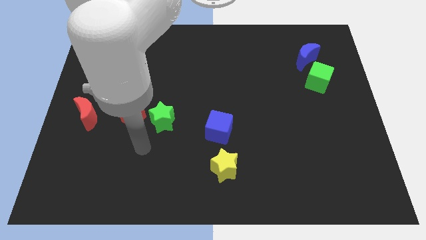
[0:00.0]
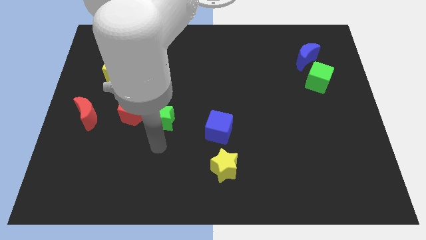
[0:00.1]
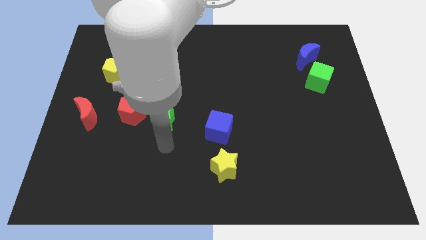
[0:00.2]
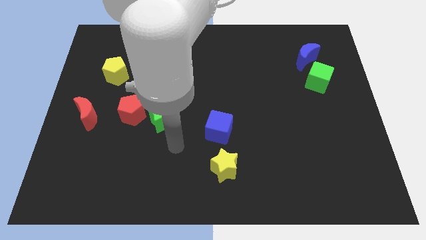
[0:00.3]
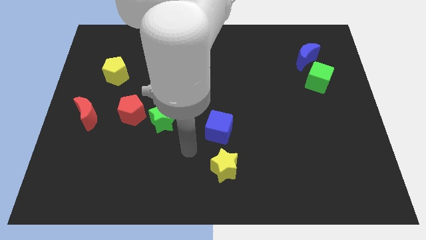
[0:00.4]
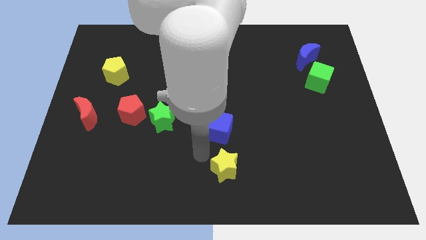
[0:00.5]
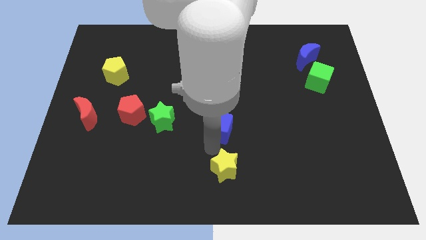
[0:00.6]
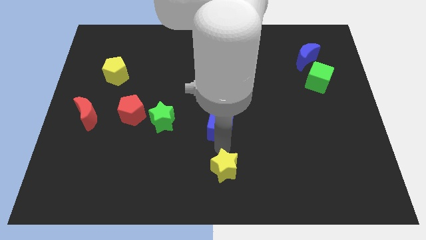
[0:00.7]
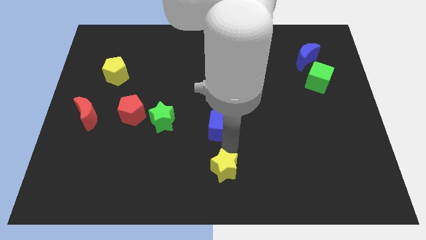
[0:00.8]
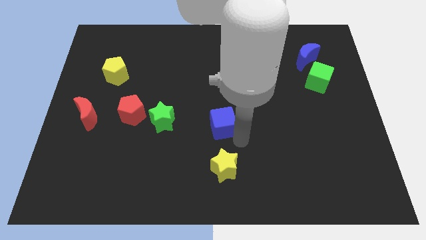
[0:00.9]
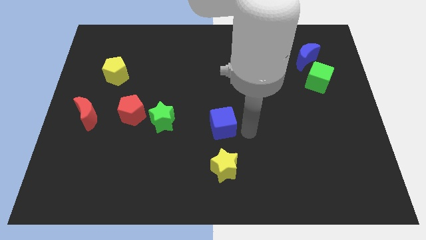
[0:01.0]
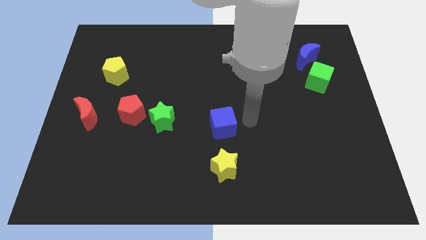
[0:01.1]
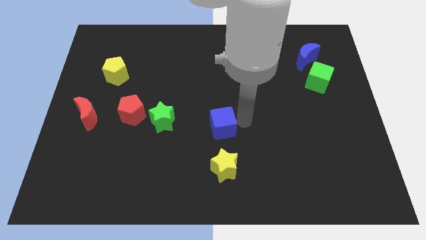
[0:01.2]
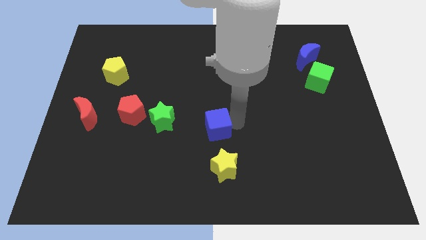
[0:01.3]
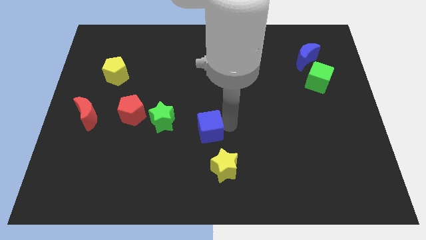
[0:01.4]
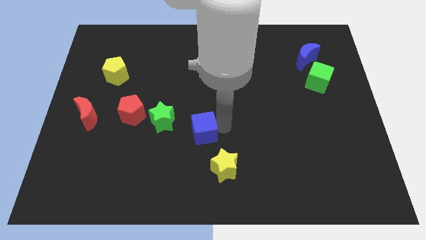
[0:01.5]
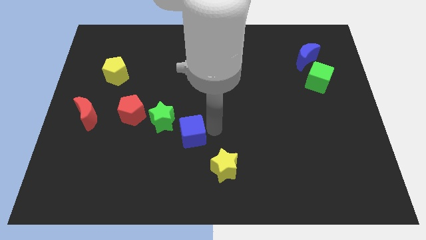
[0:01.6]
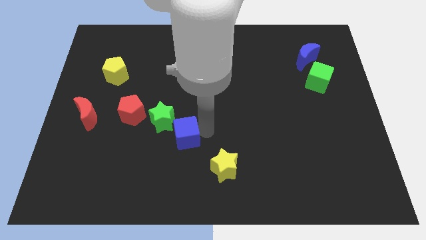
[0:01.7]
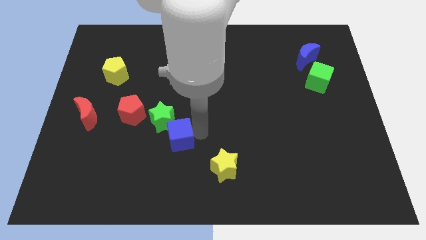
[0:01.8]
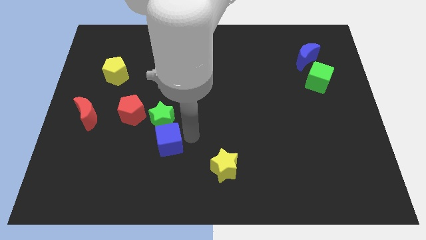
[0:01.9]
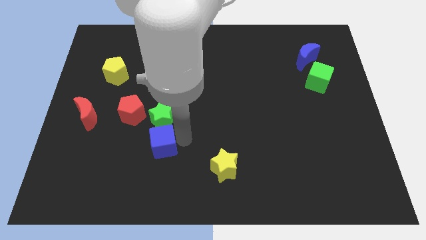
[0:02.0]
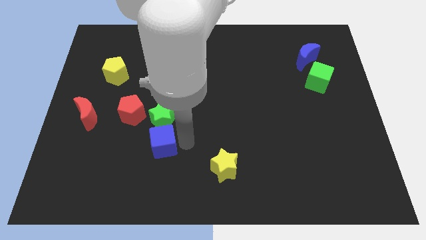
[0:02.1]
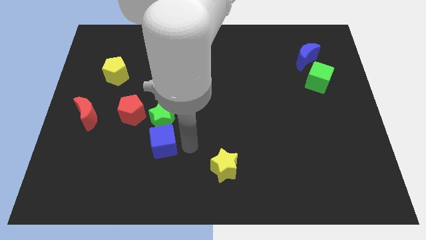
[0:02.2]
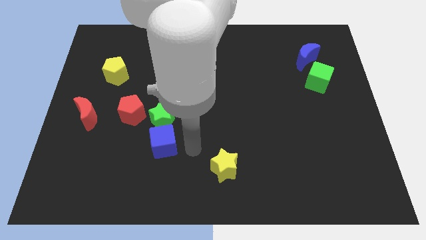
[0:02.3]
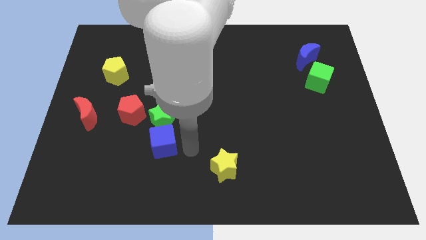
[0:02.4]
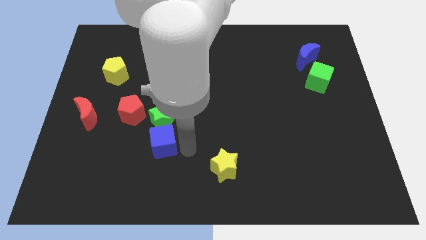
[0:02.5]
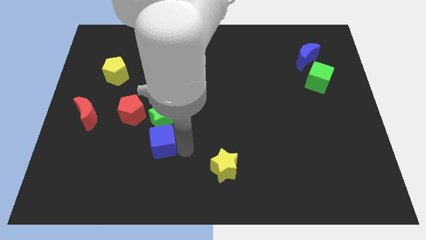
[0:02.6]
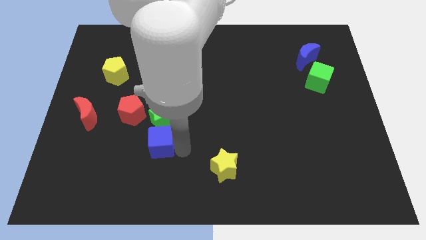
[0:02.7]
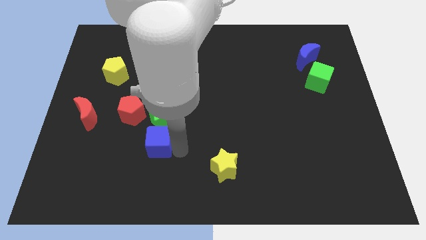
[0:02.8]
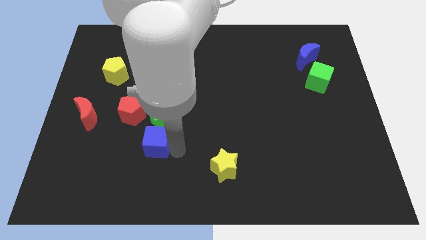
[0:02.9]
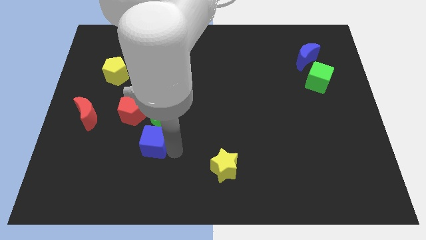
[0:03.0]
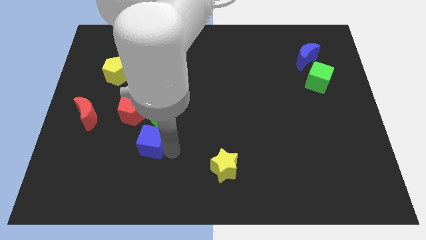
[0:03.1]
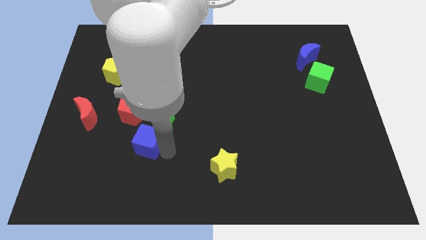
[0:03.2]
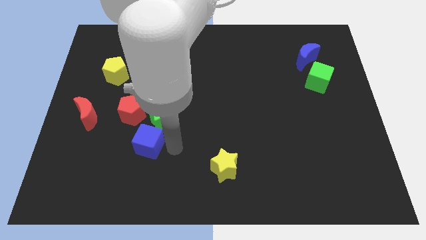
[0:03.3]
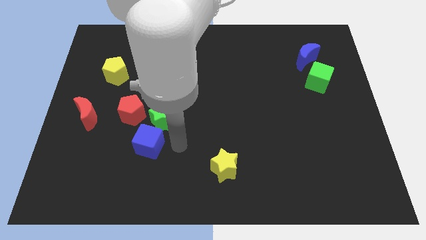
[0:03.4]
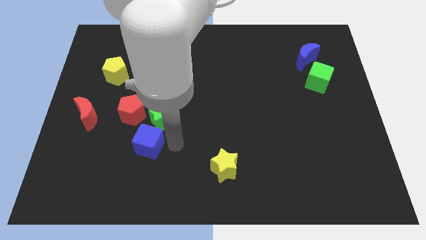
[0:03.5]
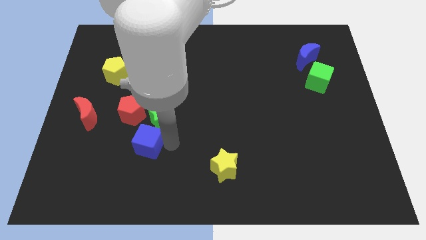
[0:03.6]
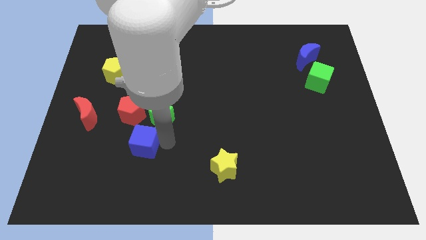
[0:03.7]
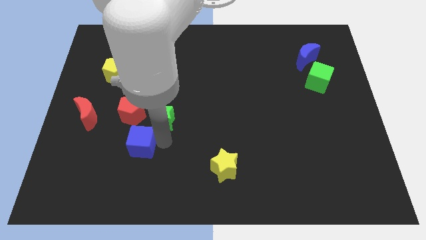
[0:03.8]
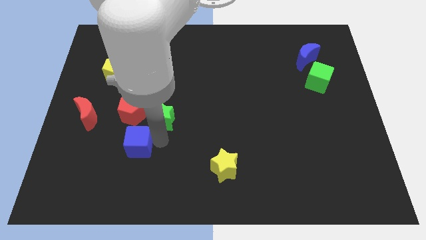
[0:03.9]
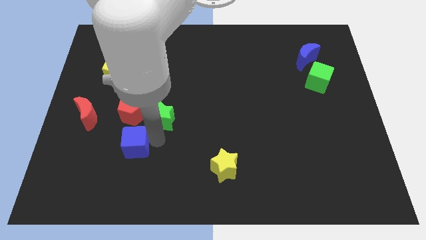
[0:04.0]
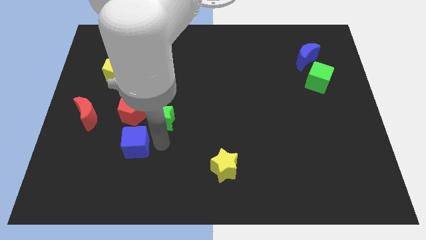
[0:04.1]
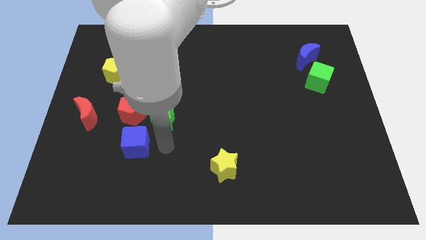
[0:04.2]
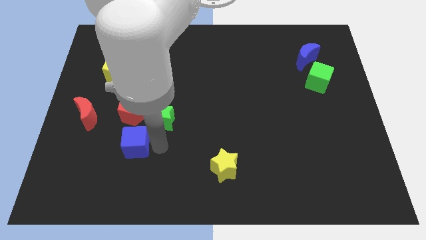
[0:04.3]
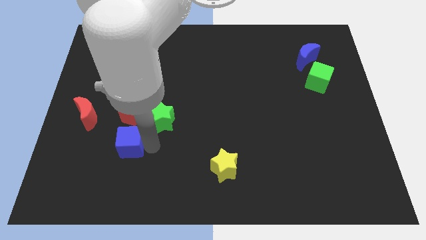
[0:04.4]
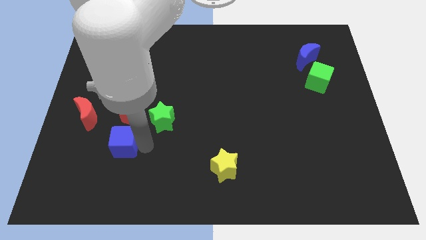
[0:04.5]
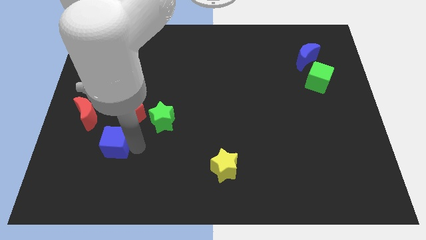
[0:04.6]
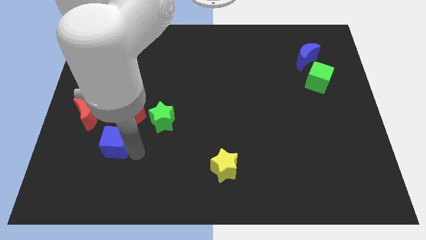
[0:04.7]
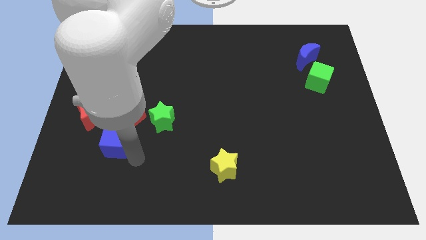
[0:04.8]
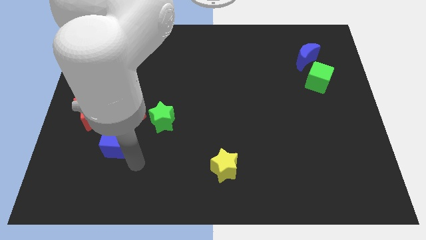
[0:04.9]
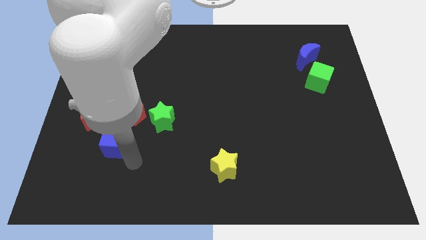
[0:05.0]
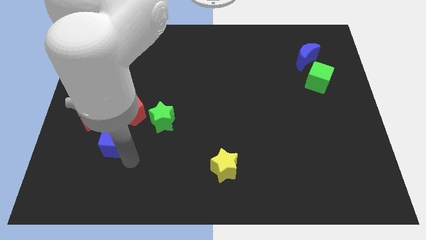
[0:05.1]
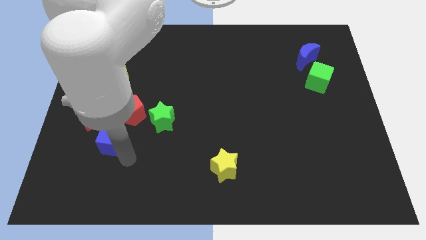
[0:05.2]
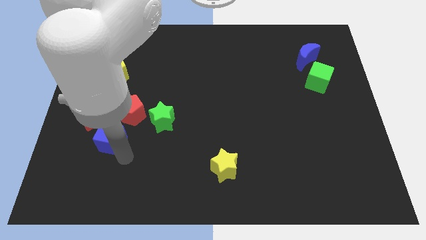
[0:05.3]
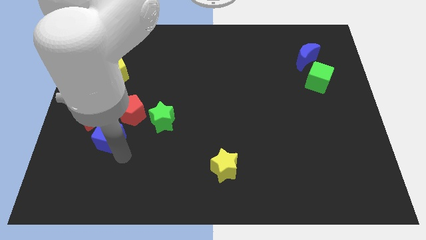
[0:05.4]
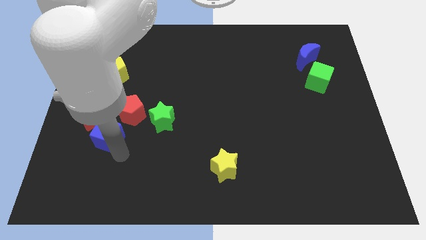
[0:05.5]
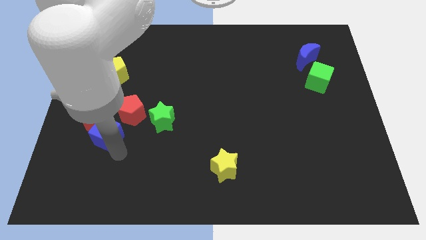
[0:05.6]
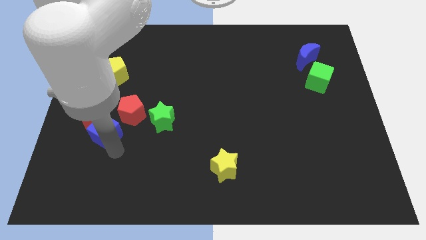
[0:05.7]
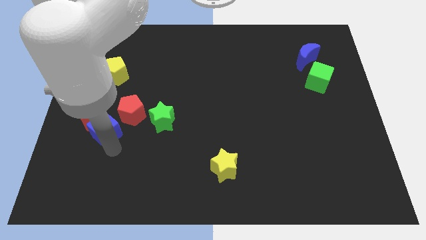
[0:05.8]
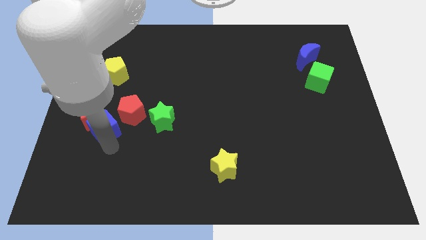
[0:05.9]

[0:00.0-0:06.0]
slide the blue cube to the red moon

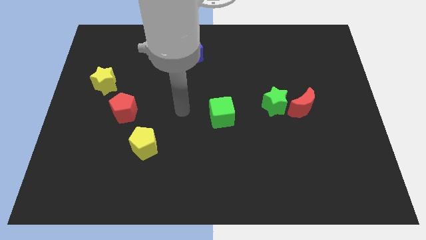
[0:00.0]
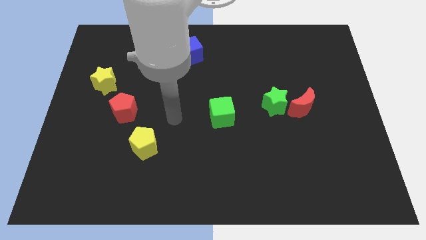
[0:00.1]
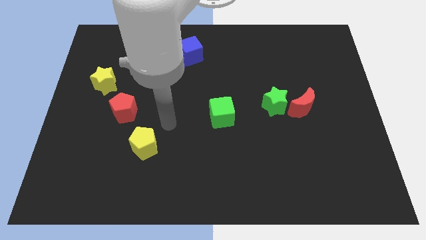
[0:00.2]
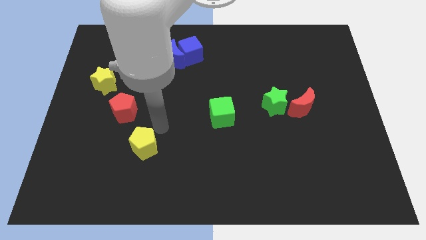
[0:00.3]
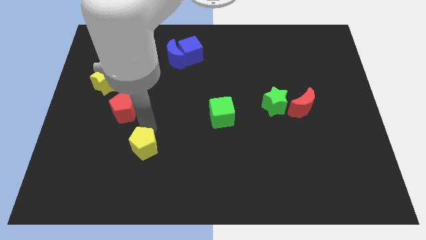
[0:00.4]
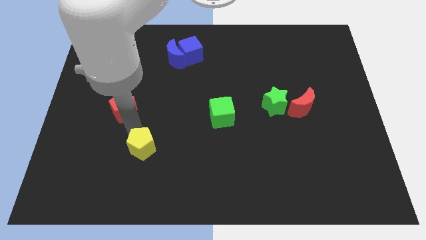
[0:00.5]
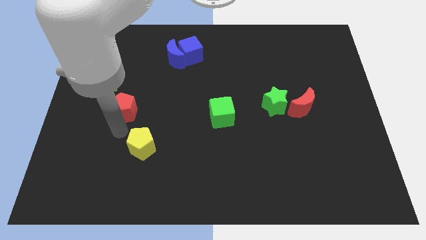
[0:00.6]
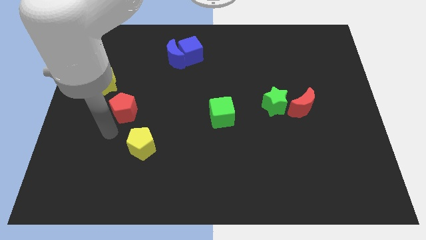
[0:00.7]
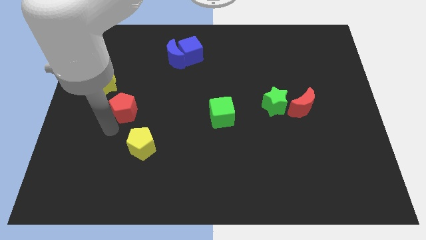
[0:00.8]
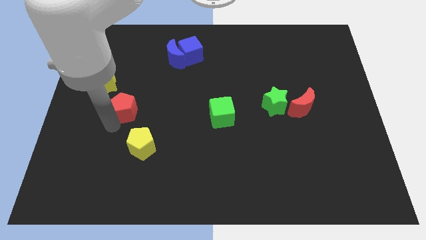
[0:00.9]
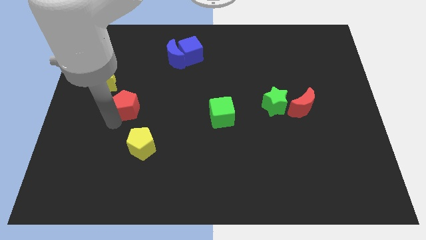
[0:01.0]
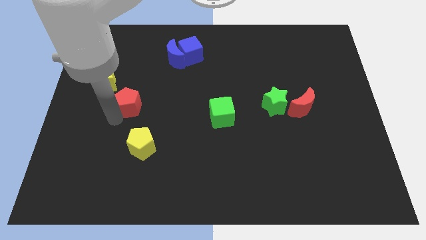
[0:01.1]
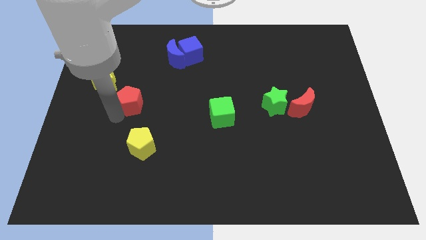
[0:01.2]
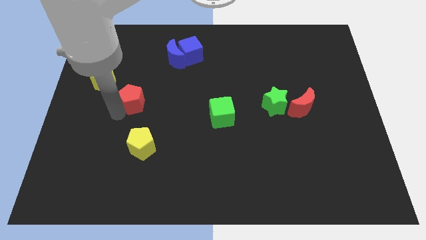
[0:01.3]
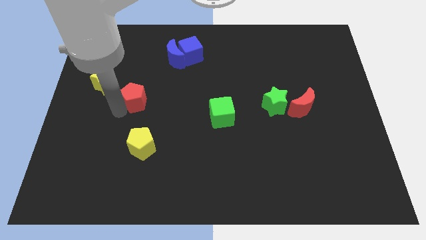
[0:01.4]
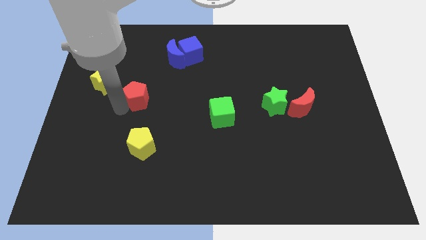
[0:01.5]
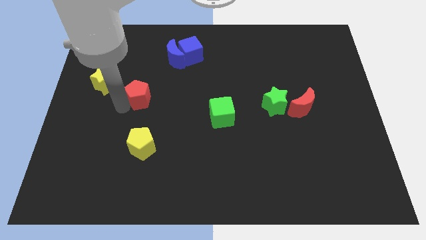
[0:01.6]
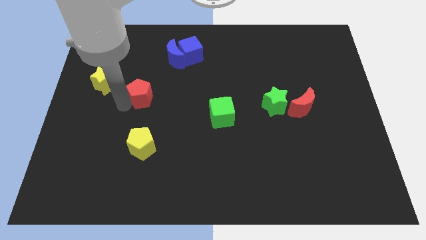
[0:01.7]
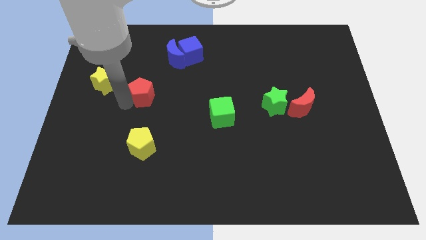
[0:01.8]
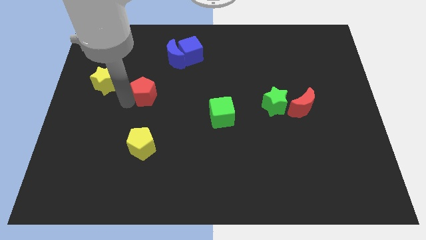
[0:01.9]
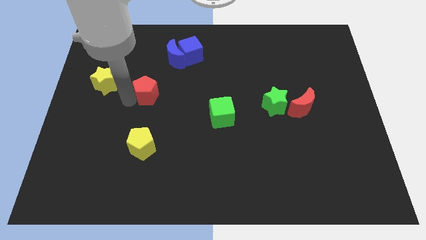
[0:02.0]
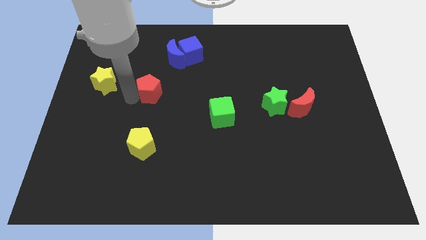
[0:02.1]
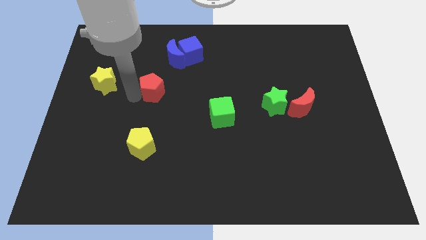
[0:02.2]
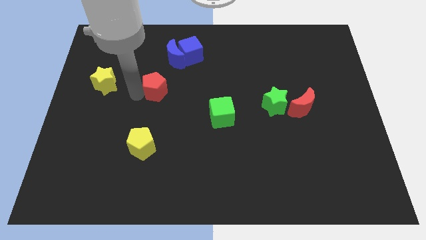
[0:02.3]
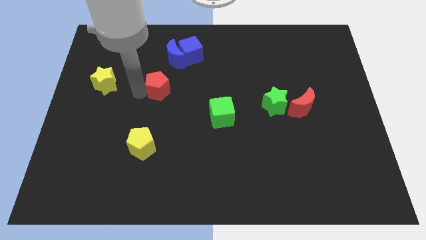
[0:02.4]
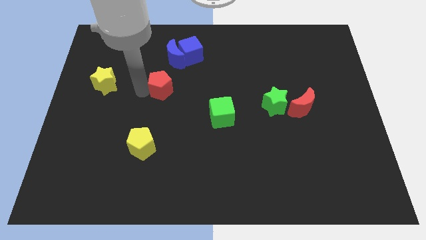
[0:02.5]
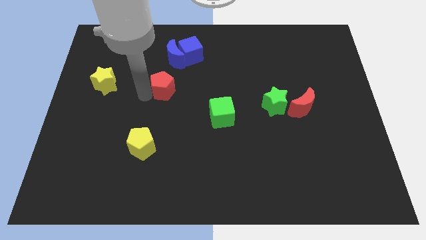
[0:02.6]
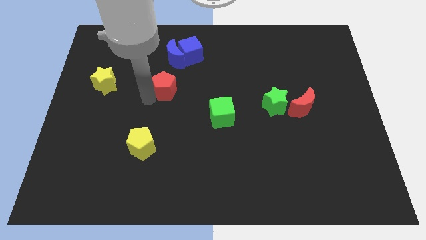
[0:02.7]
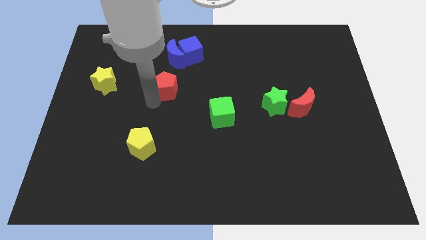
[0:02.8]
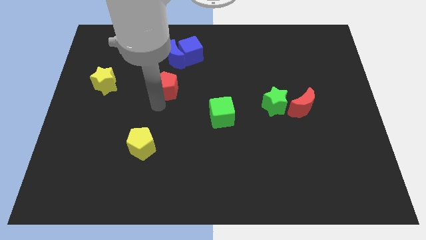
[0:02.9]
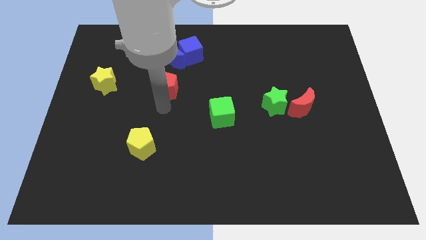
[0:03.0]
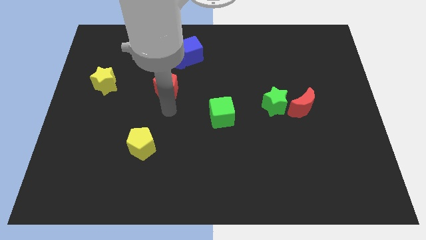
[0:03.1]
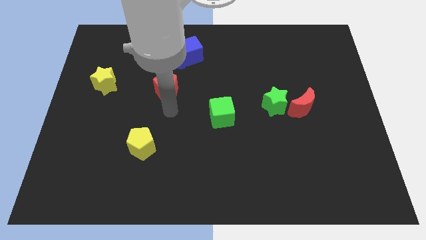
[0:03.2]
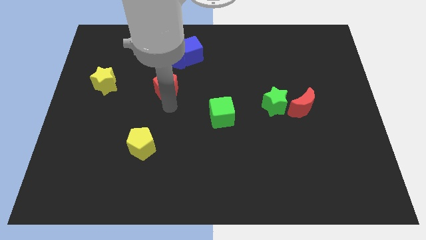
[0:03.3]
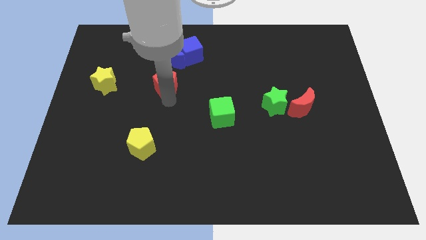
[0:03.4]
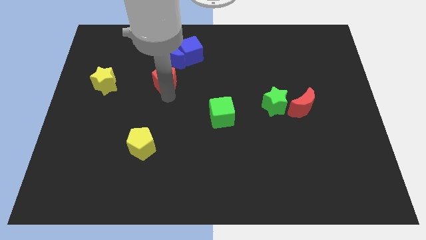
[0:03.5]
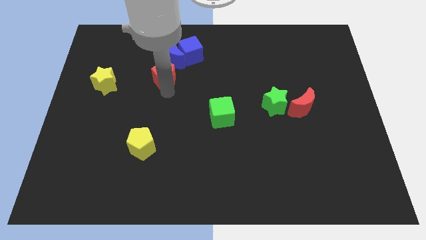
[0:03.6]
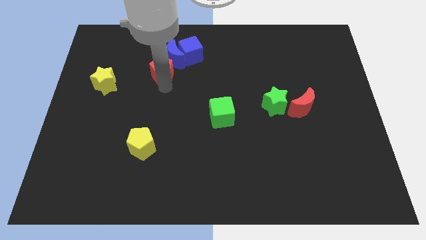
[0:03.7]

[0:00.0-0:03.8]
put the red pentagon to the blue moon
